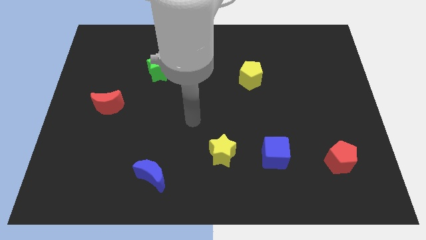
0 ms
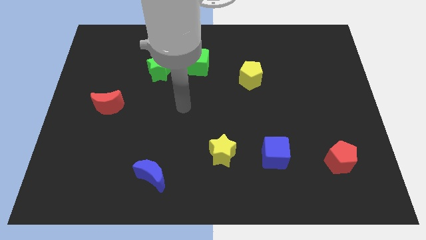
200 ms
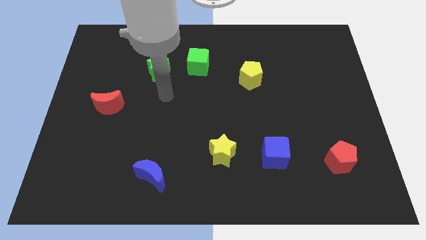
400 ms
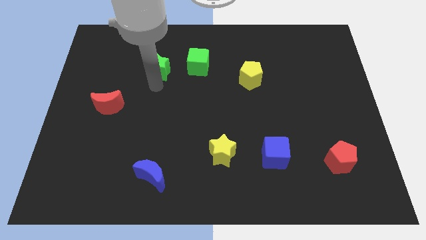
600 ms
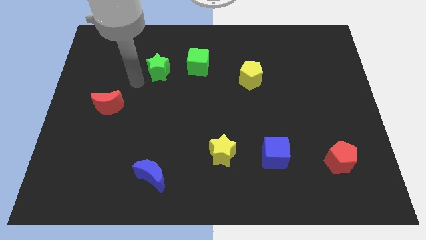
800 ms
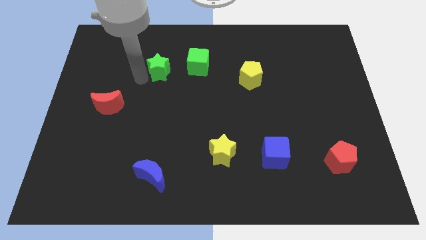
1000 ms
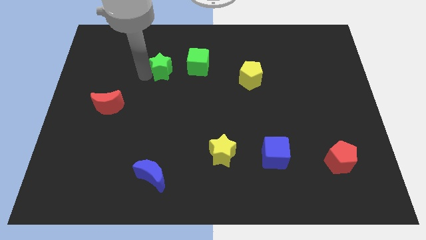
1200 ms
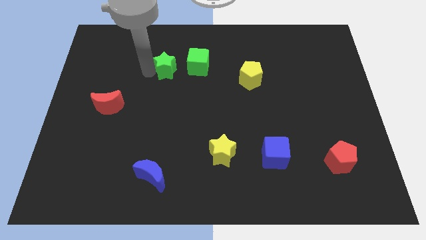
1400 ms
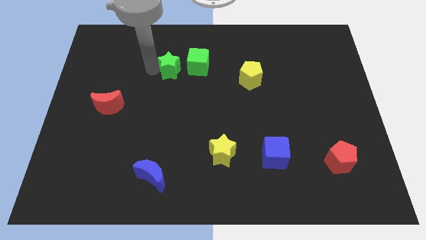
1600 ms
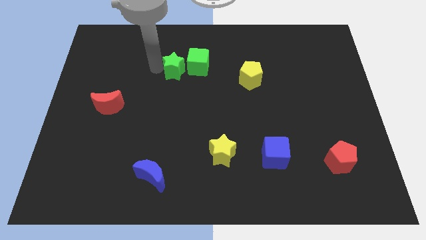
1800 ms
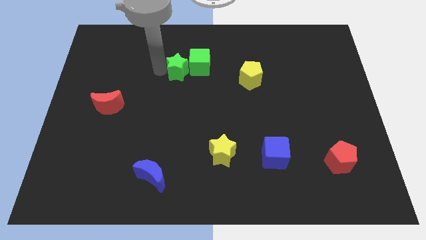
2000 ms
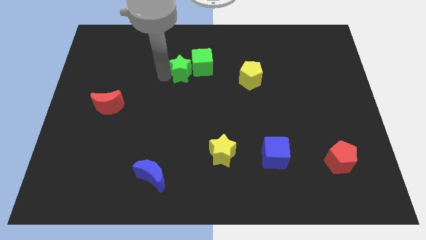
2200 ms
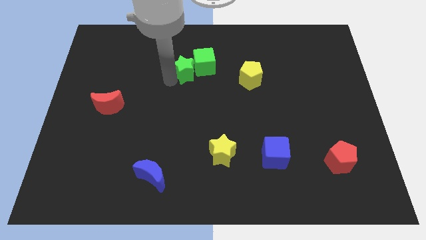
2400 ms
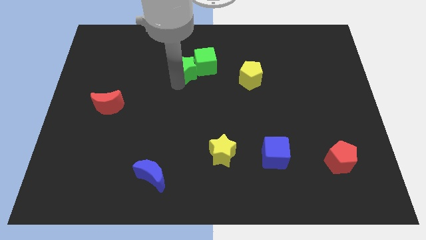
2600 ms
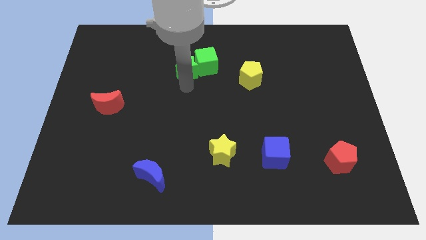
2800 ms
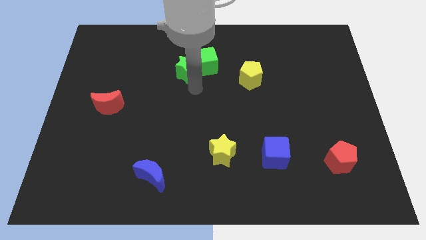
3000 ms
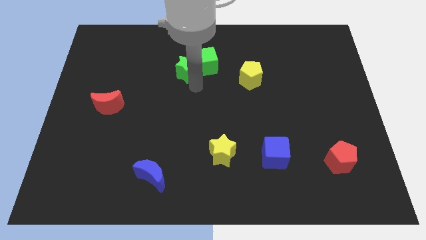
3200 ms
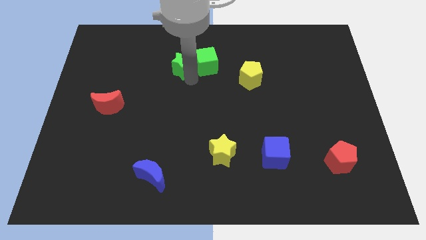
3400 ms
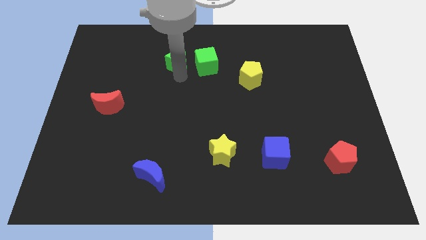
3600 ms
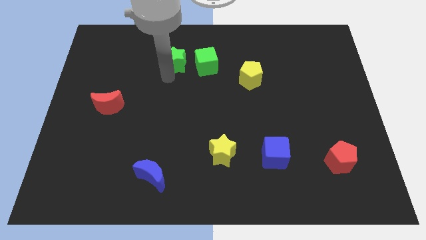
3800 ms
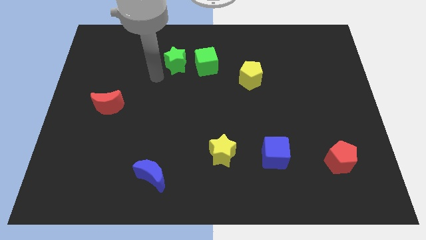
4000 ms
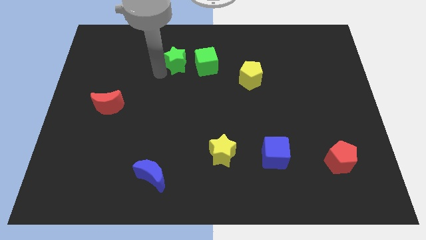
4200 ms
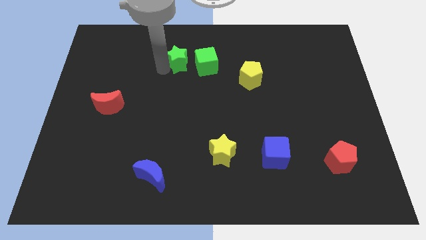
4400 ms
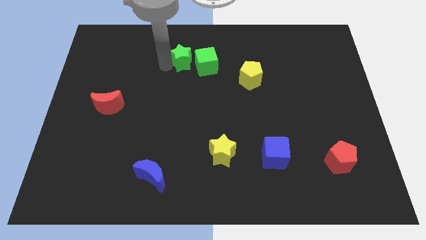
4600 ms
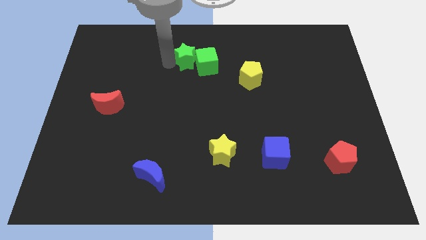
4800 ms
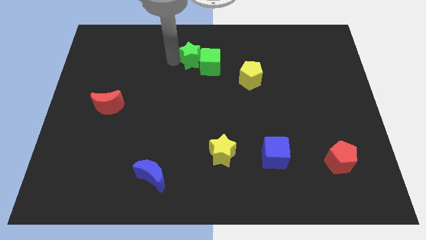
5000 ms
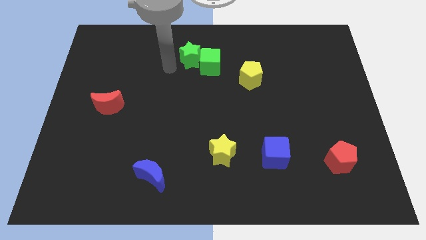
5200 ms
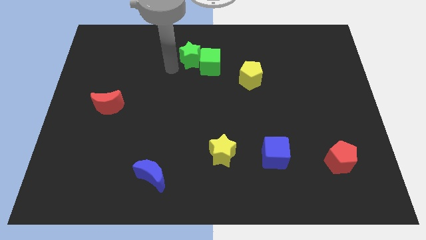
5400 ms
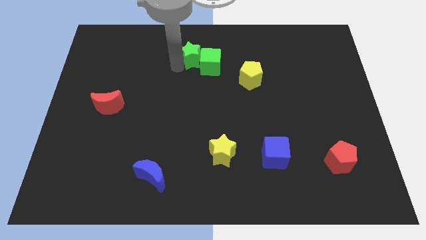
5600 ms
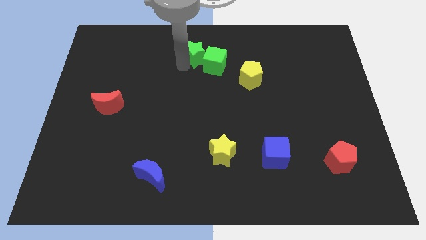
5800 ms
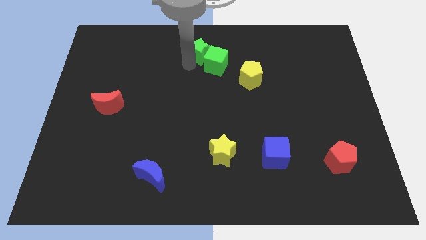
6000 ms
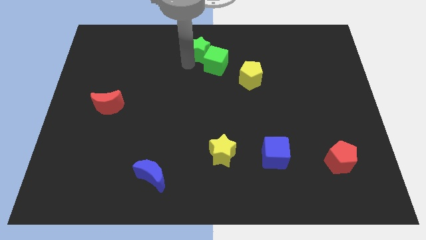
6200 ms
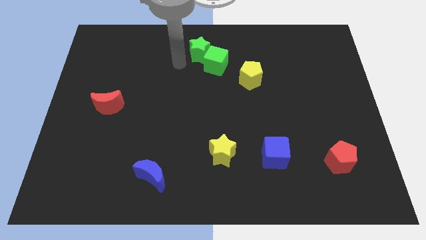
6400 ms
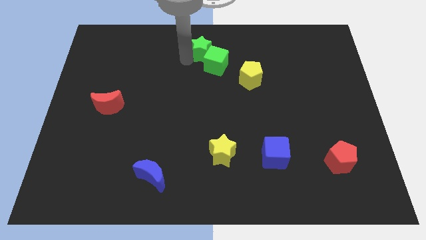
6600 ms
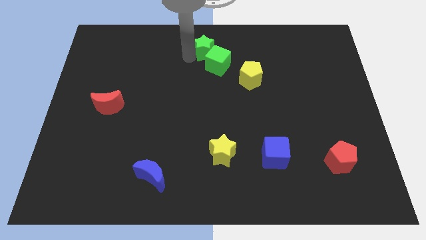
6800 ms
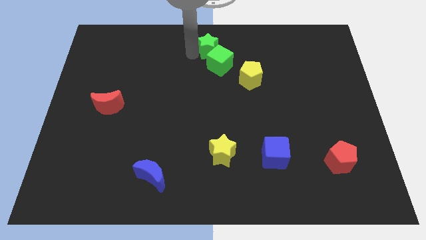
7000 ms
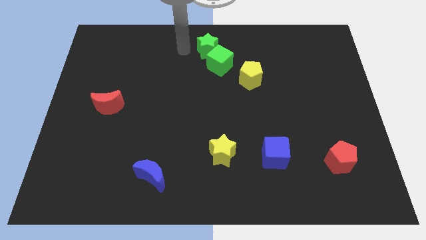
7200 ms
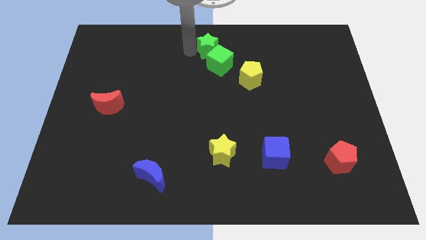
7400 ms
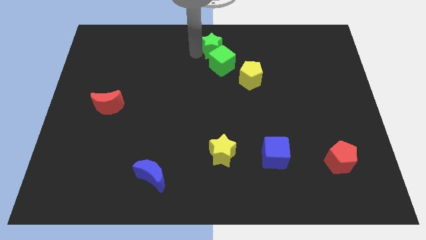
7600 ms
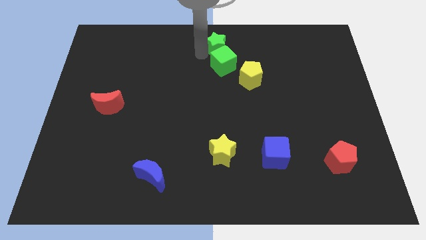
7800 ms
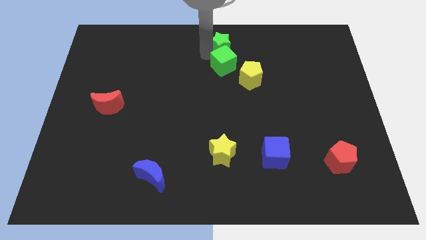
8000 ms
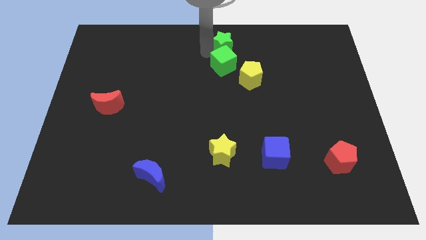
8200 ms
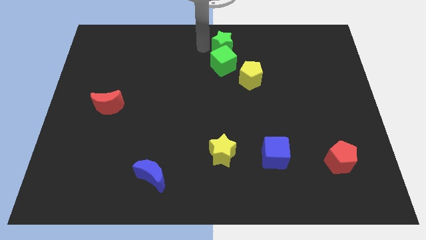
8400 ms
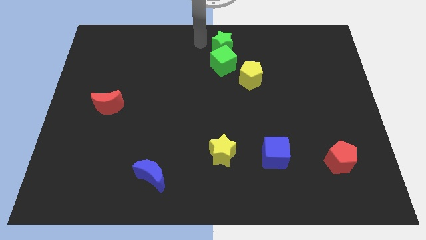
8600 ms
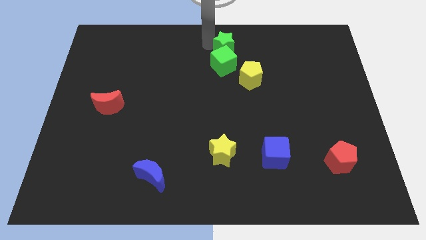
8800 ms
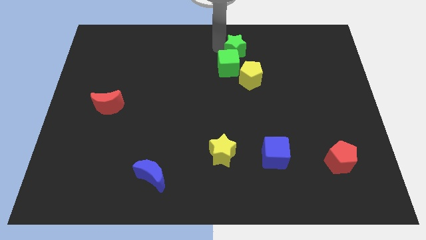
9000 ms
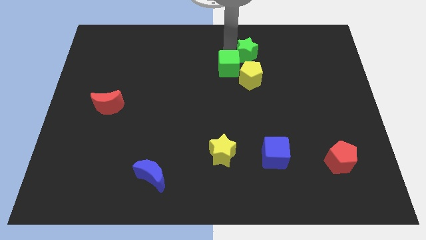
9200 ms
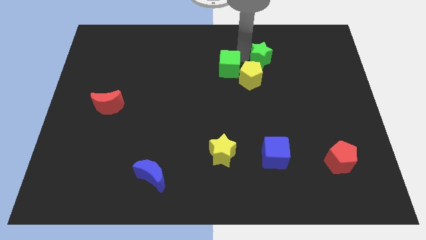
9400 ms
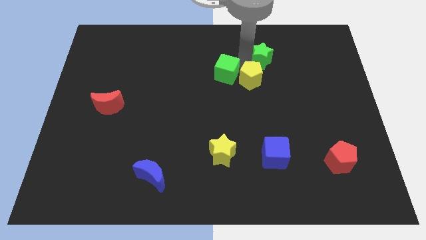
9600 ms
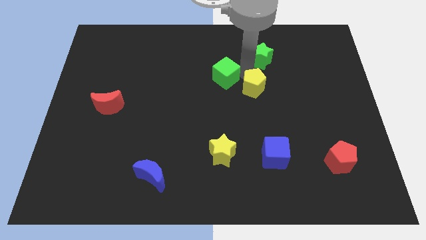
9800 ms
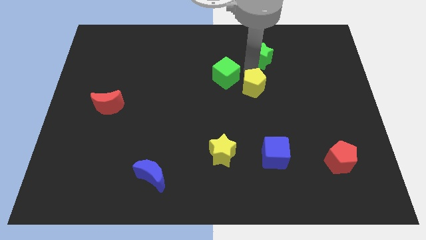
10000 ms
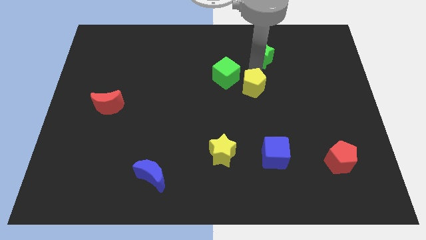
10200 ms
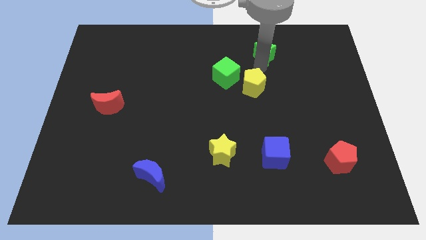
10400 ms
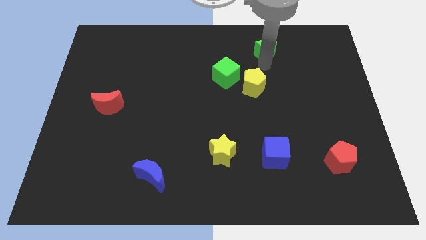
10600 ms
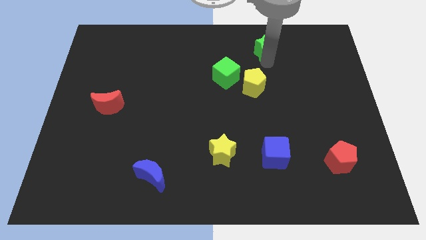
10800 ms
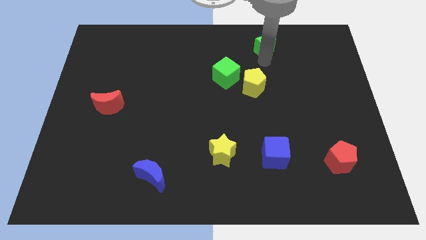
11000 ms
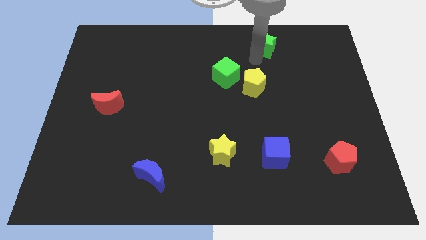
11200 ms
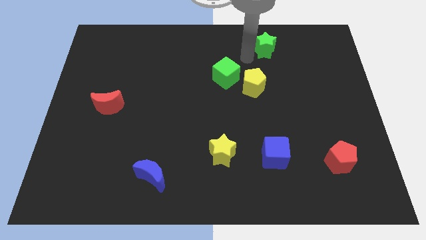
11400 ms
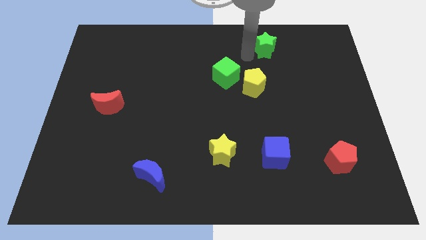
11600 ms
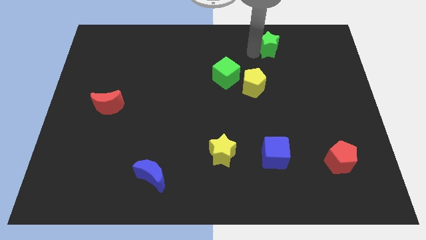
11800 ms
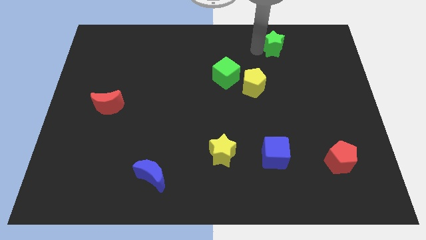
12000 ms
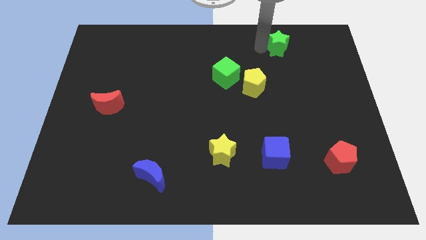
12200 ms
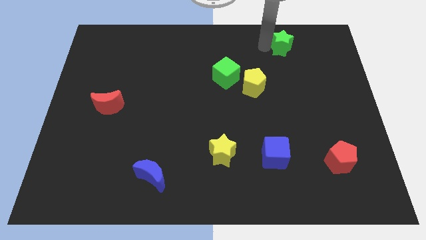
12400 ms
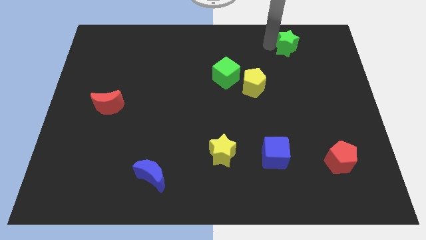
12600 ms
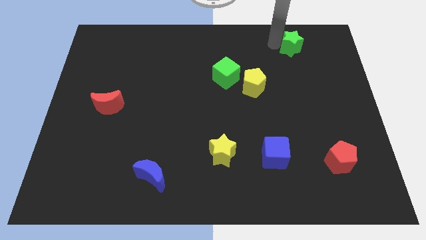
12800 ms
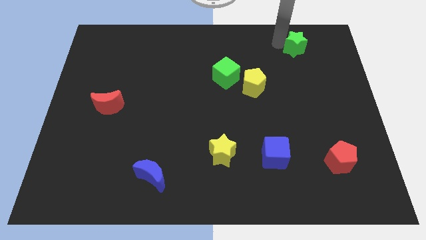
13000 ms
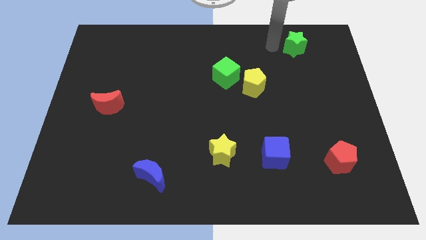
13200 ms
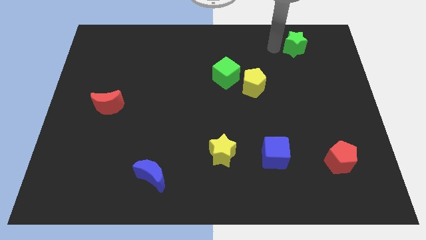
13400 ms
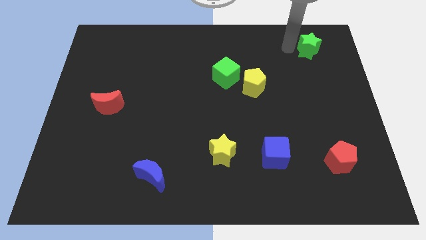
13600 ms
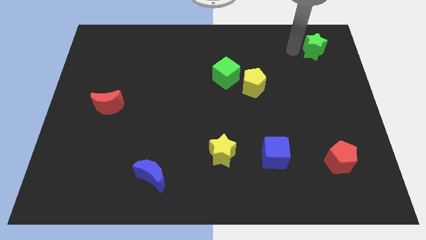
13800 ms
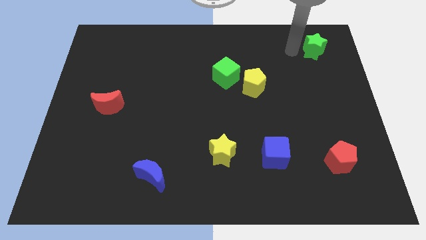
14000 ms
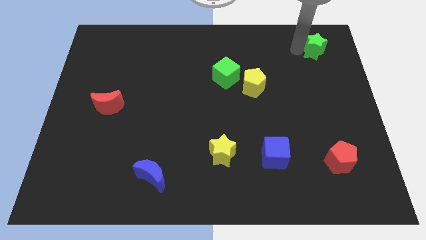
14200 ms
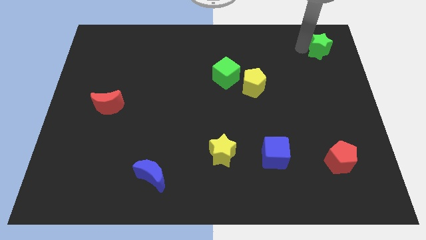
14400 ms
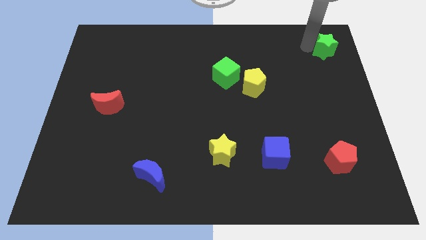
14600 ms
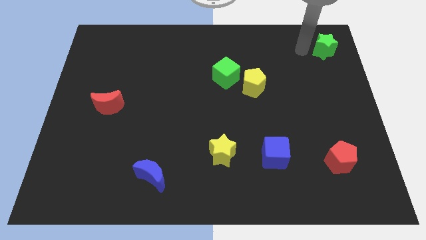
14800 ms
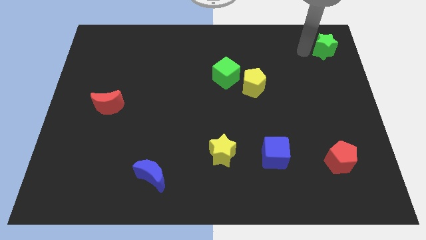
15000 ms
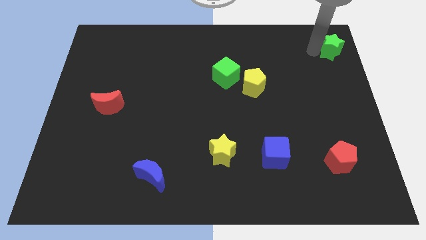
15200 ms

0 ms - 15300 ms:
push the green star to the top right

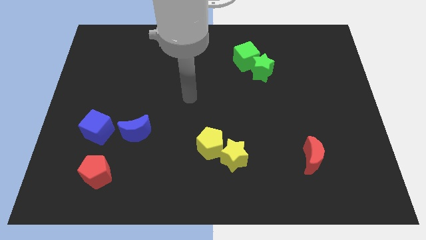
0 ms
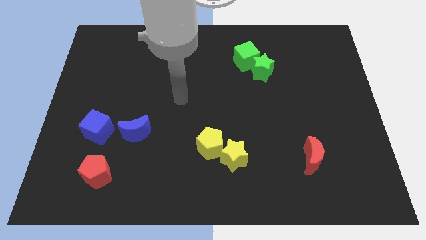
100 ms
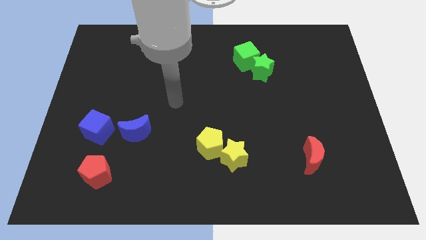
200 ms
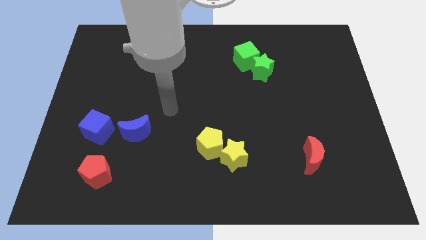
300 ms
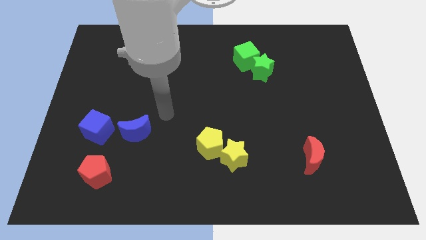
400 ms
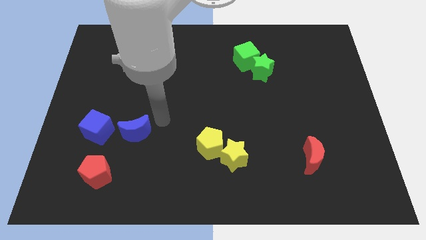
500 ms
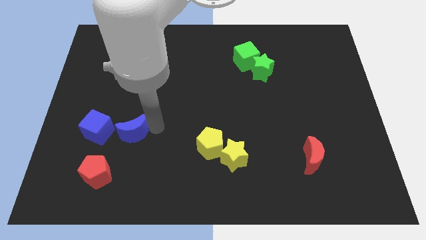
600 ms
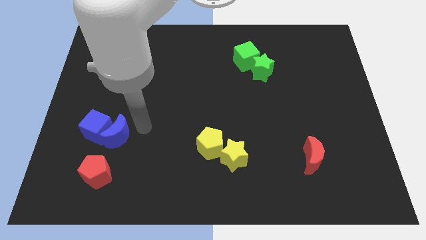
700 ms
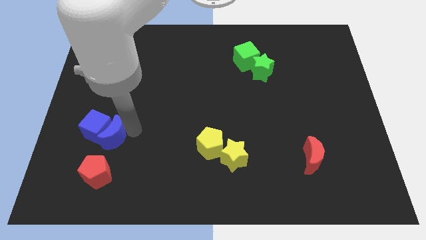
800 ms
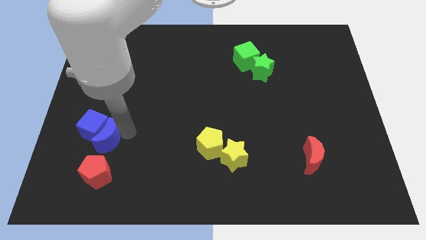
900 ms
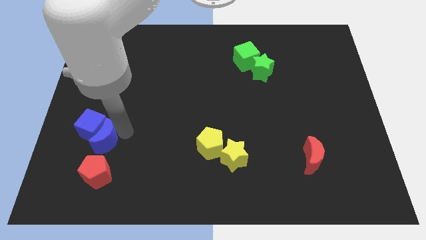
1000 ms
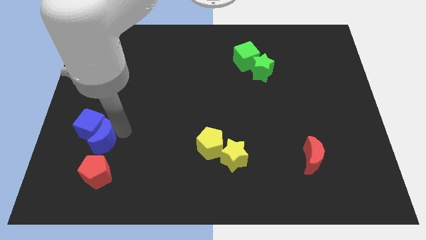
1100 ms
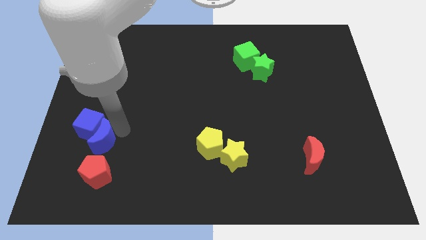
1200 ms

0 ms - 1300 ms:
move the blue cube to the left side
